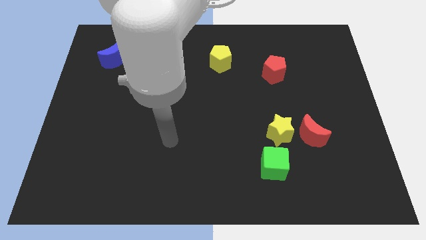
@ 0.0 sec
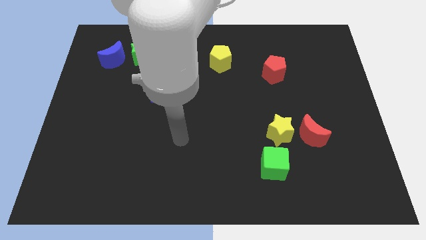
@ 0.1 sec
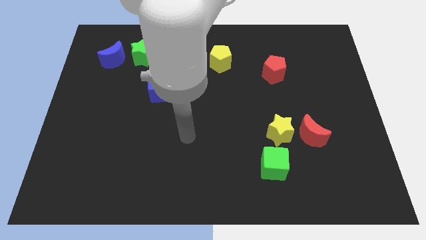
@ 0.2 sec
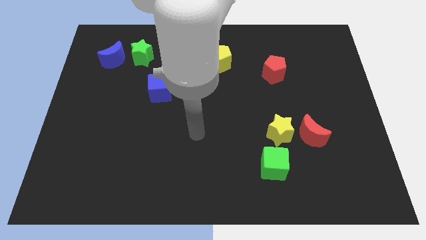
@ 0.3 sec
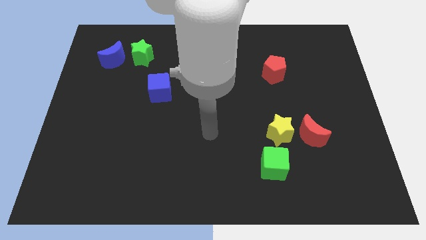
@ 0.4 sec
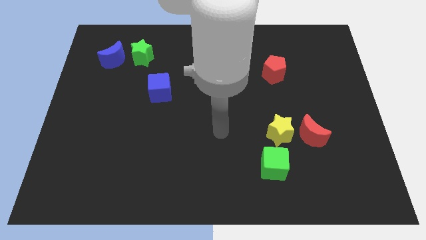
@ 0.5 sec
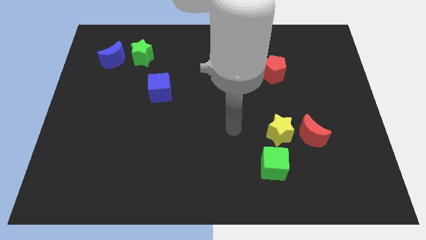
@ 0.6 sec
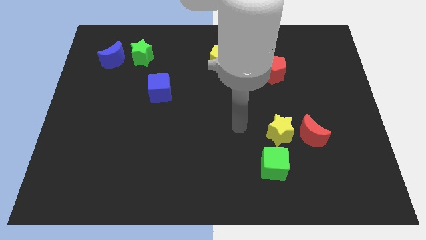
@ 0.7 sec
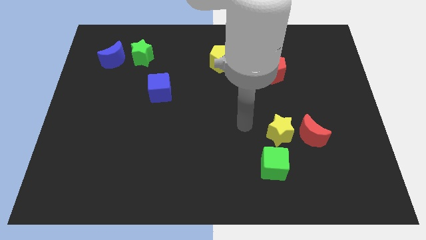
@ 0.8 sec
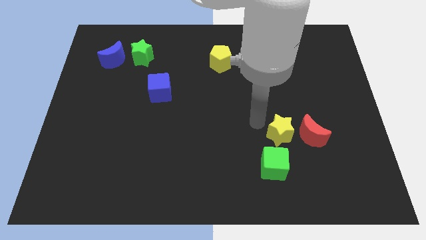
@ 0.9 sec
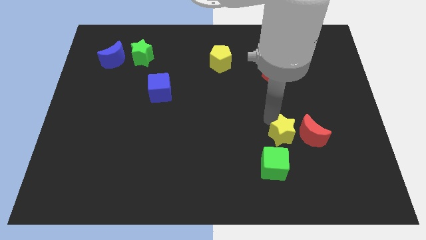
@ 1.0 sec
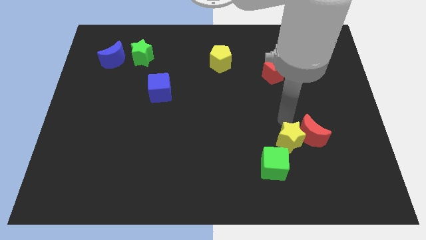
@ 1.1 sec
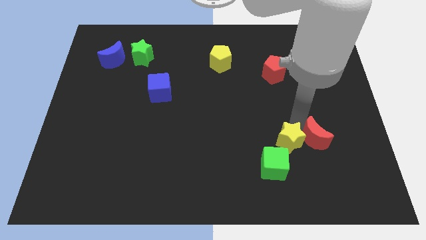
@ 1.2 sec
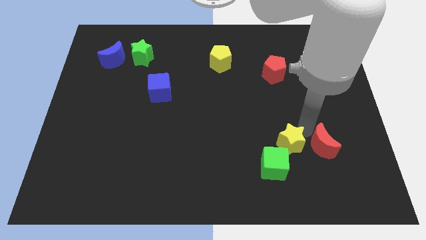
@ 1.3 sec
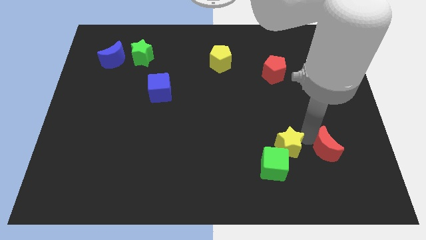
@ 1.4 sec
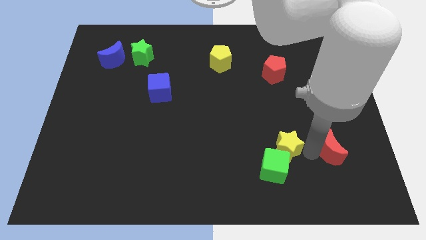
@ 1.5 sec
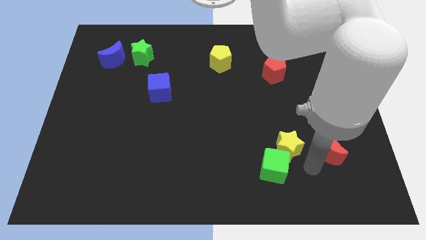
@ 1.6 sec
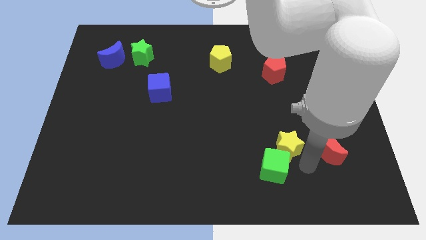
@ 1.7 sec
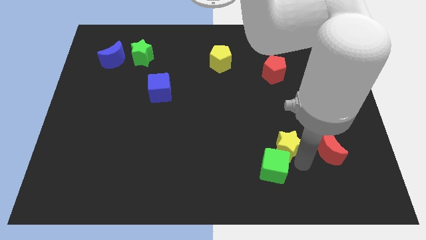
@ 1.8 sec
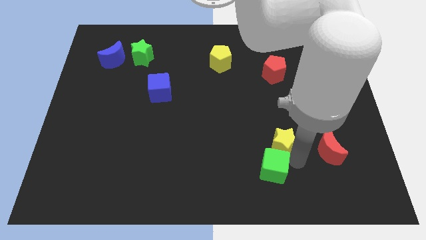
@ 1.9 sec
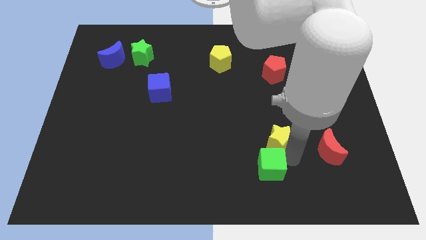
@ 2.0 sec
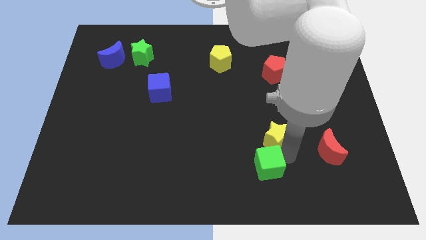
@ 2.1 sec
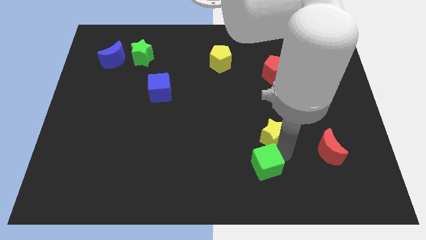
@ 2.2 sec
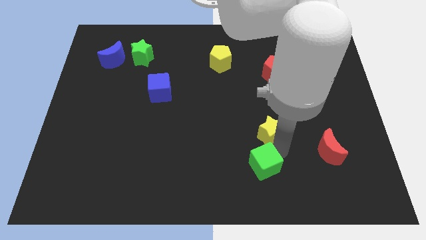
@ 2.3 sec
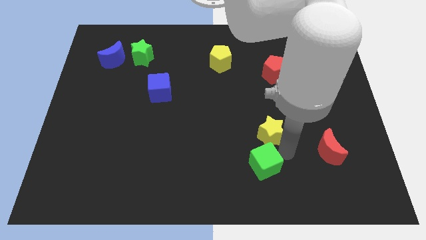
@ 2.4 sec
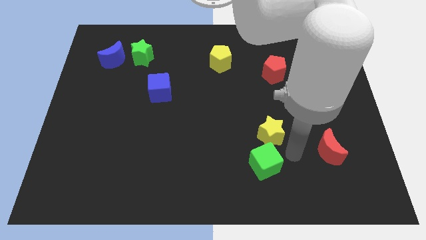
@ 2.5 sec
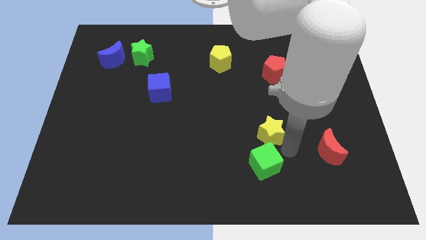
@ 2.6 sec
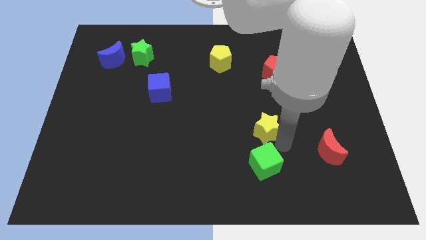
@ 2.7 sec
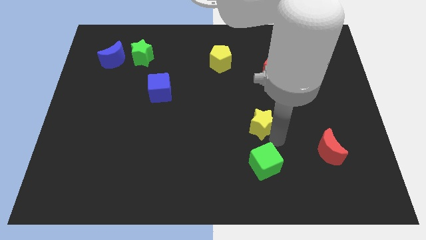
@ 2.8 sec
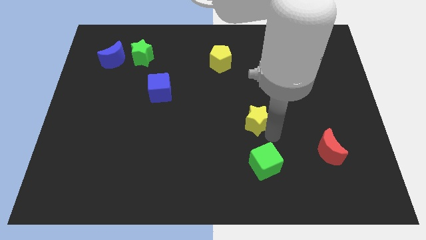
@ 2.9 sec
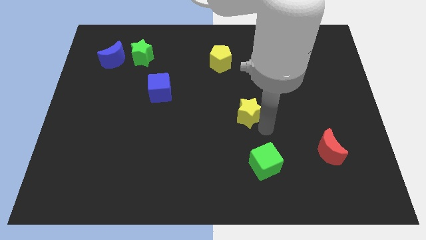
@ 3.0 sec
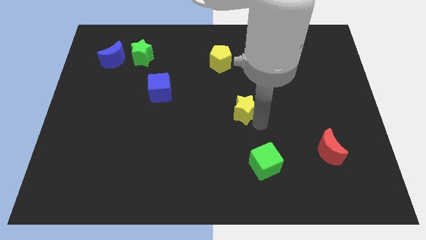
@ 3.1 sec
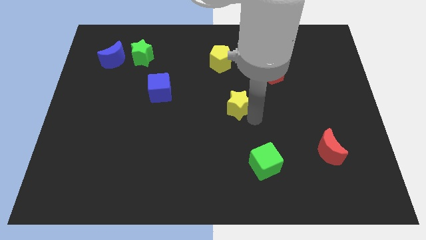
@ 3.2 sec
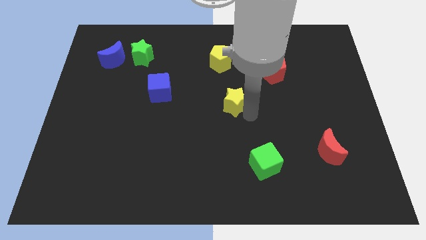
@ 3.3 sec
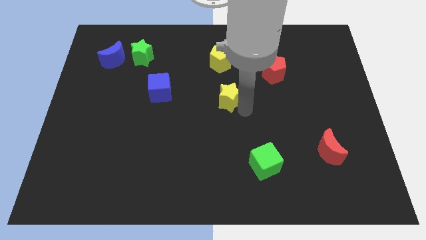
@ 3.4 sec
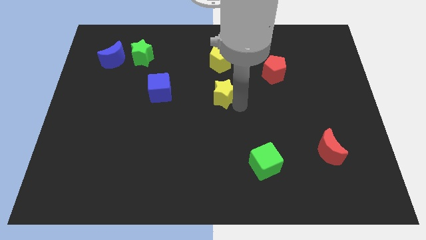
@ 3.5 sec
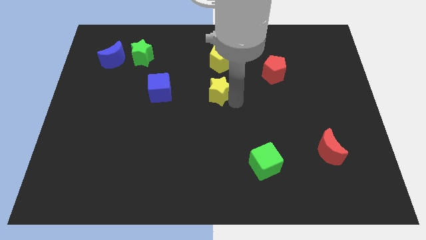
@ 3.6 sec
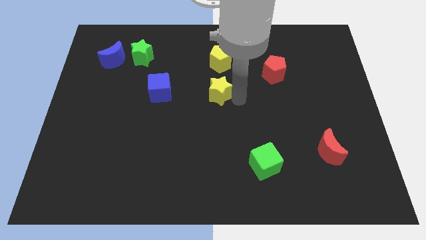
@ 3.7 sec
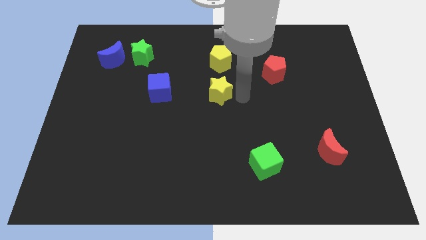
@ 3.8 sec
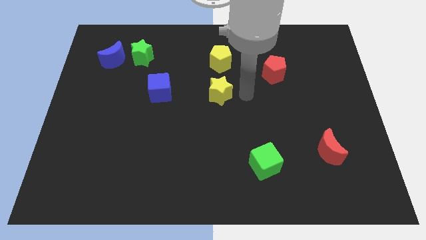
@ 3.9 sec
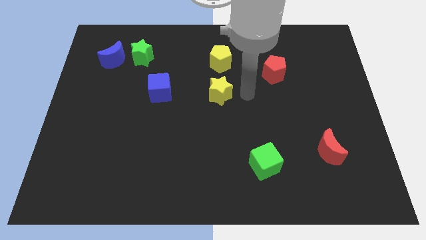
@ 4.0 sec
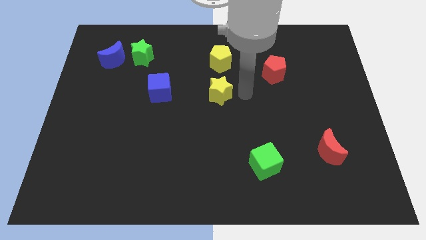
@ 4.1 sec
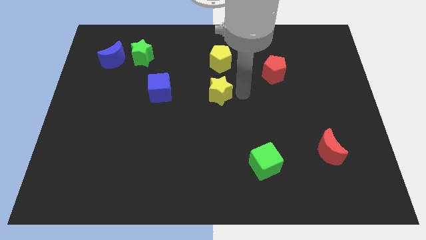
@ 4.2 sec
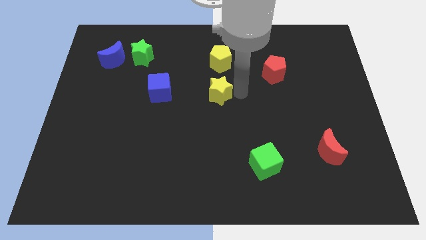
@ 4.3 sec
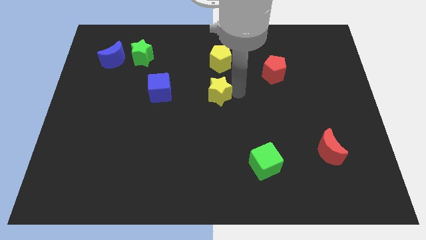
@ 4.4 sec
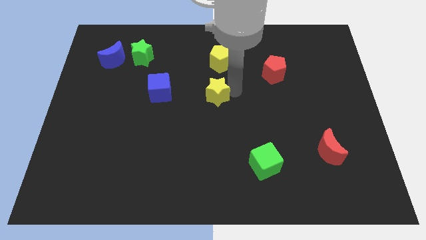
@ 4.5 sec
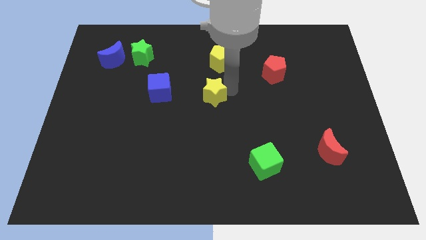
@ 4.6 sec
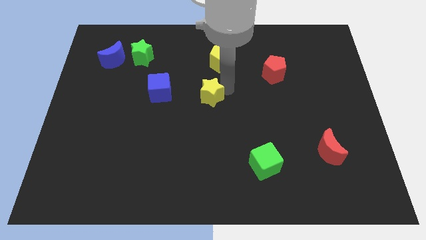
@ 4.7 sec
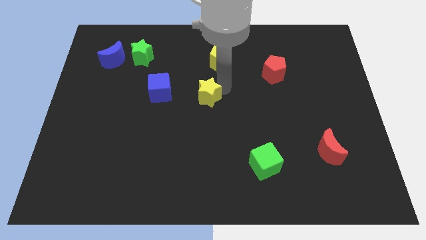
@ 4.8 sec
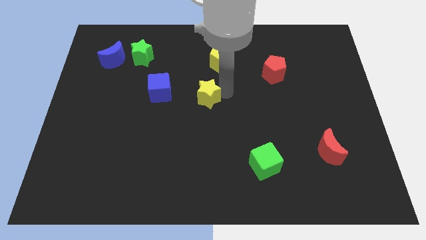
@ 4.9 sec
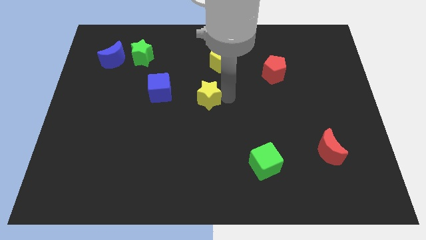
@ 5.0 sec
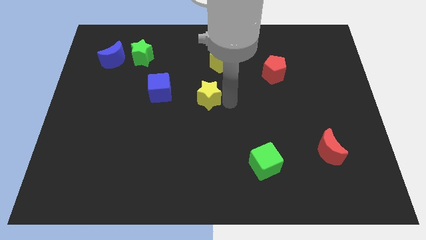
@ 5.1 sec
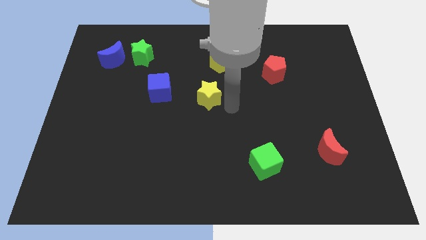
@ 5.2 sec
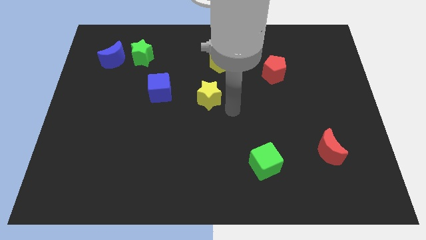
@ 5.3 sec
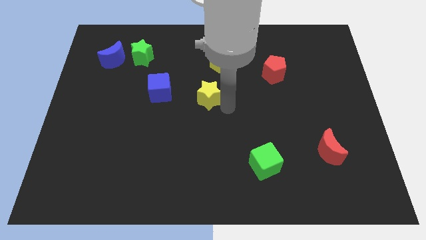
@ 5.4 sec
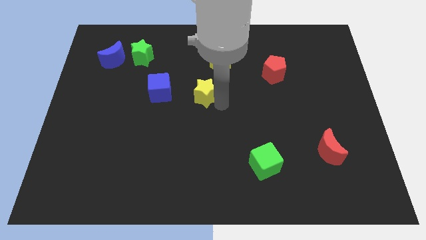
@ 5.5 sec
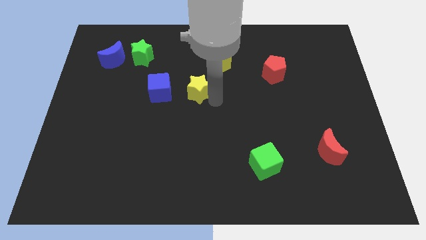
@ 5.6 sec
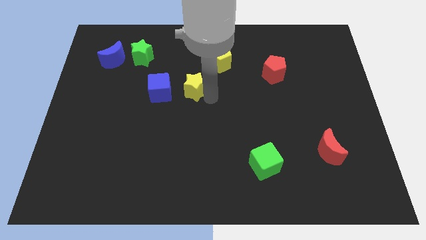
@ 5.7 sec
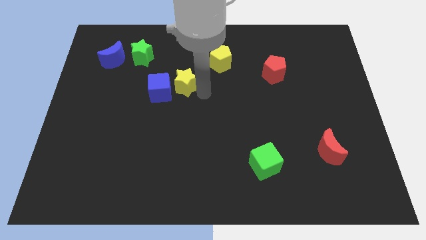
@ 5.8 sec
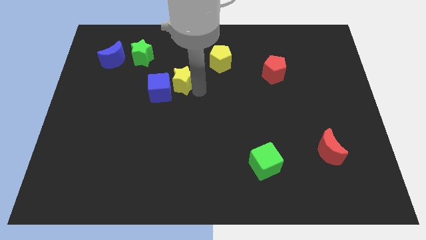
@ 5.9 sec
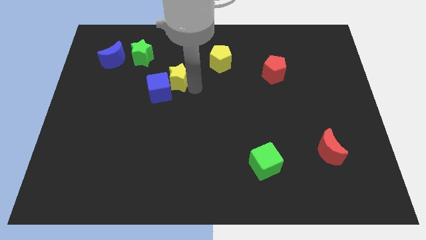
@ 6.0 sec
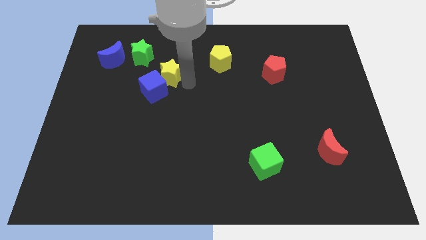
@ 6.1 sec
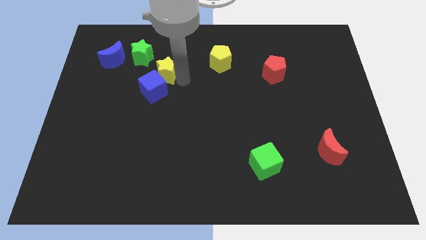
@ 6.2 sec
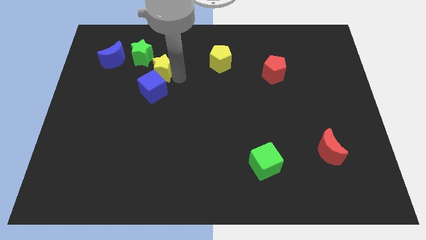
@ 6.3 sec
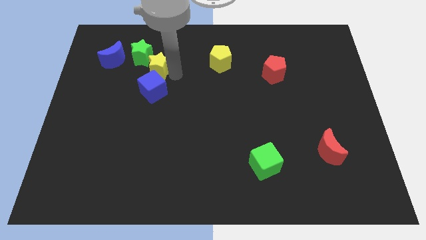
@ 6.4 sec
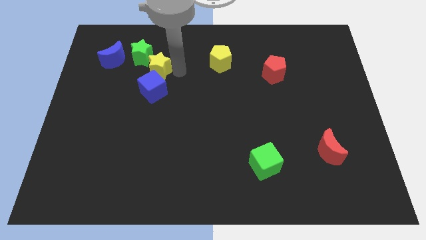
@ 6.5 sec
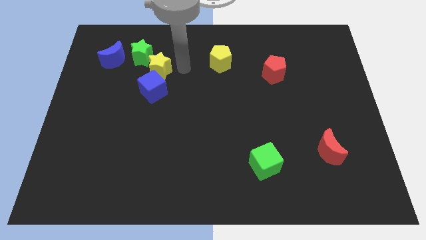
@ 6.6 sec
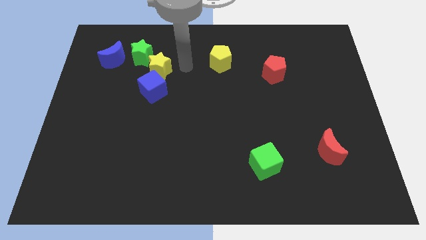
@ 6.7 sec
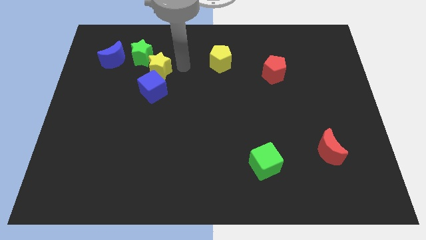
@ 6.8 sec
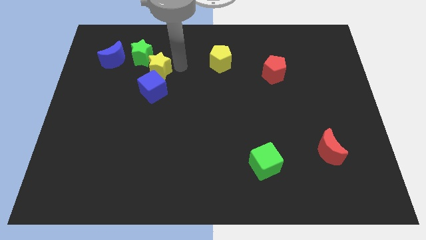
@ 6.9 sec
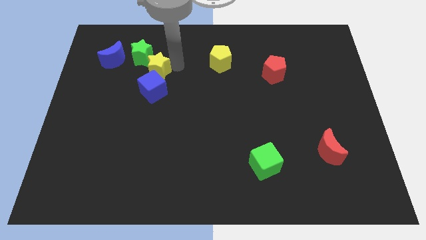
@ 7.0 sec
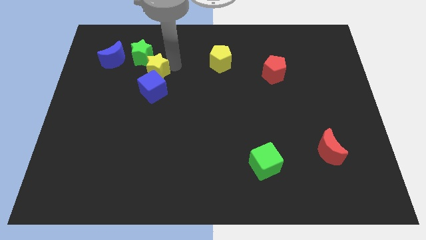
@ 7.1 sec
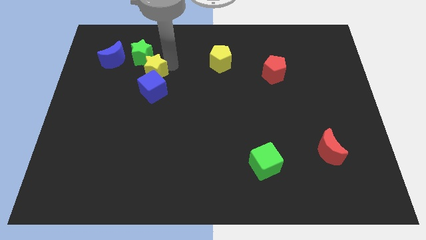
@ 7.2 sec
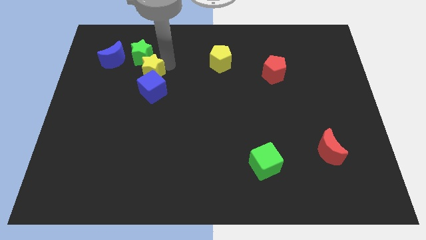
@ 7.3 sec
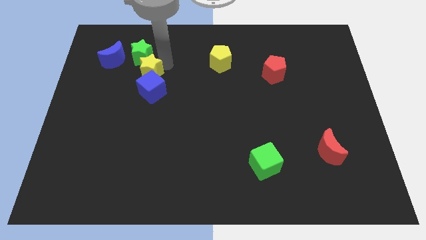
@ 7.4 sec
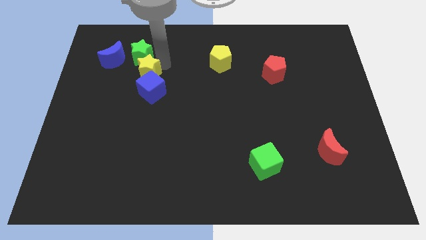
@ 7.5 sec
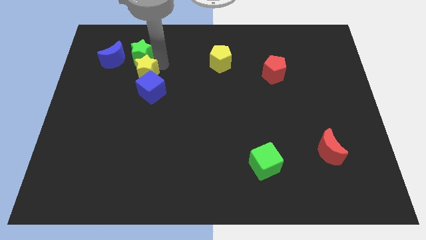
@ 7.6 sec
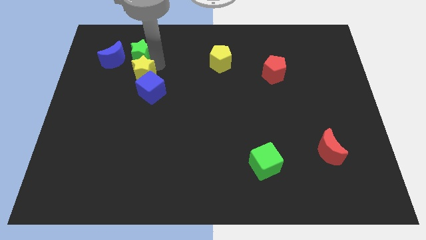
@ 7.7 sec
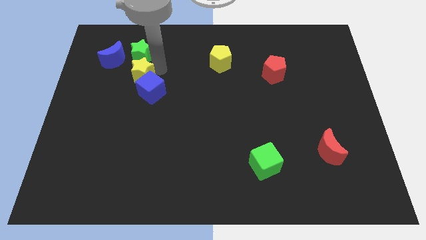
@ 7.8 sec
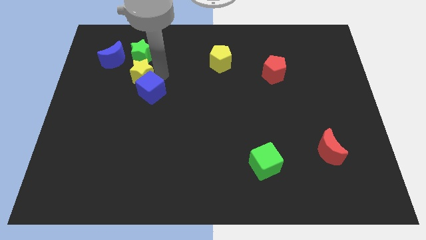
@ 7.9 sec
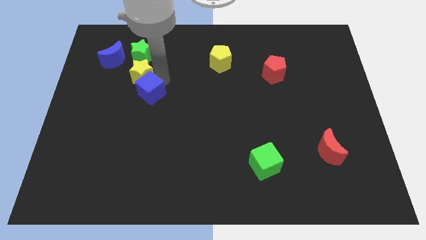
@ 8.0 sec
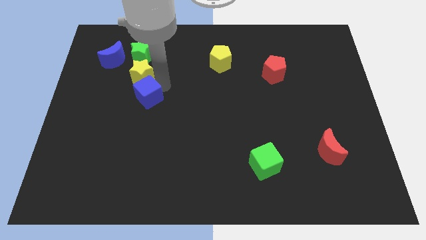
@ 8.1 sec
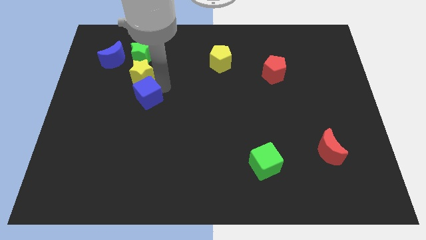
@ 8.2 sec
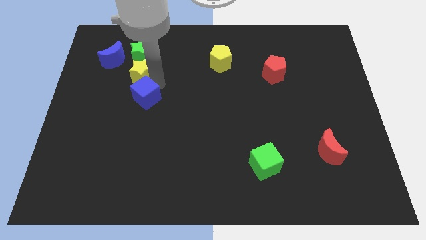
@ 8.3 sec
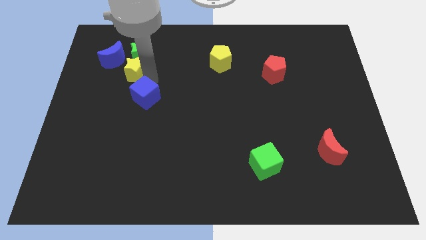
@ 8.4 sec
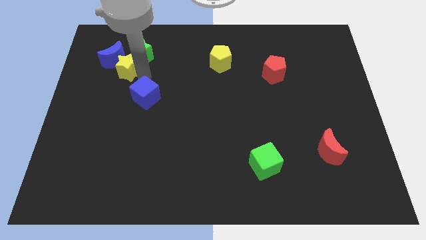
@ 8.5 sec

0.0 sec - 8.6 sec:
move the yellow star next to the blue moon
